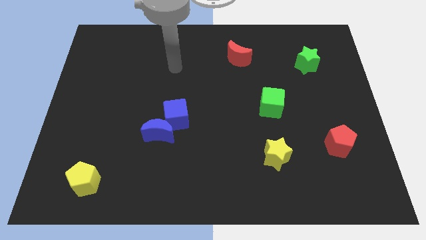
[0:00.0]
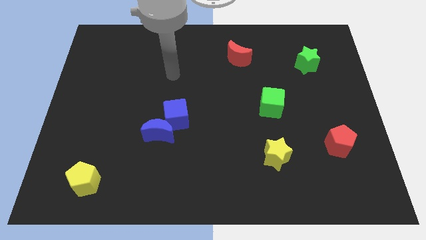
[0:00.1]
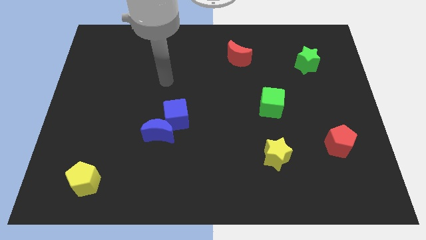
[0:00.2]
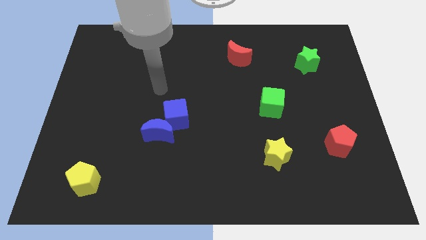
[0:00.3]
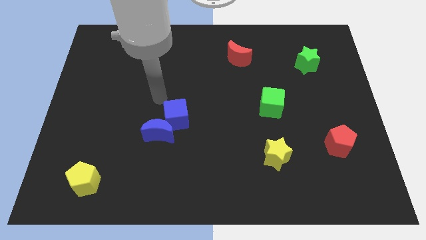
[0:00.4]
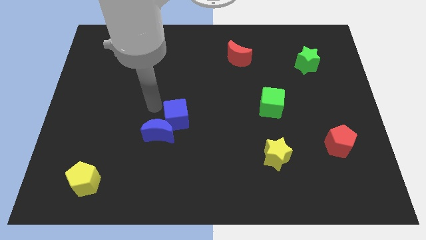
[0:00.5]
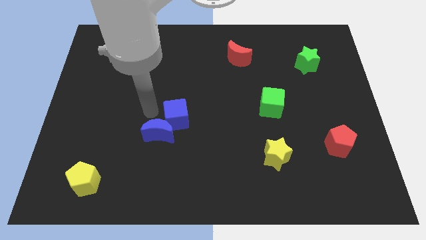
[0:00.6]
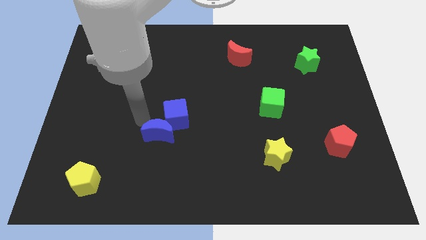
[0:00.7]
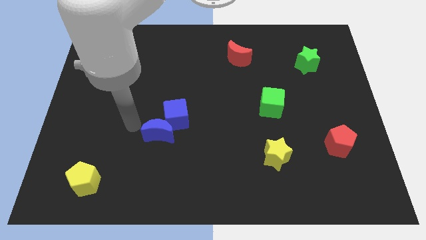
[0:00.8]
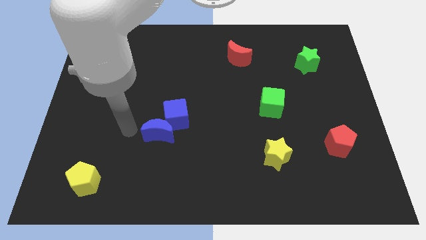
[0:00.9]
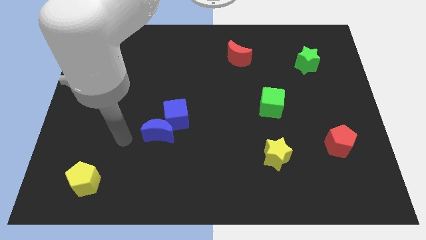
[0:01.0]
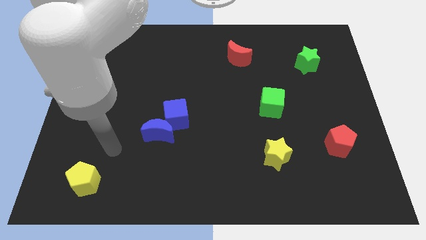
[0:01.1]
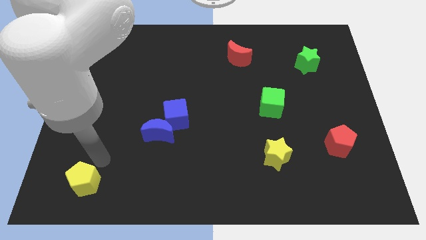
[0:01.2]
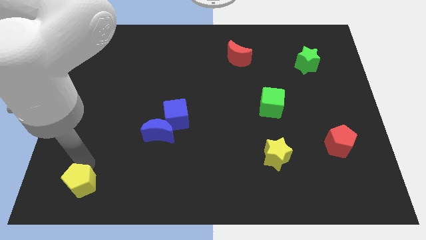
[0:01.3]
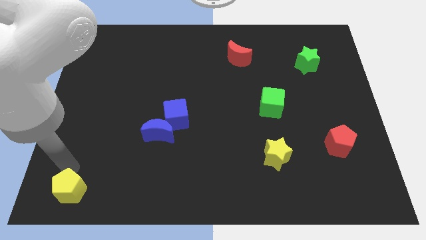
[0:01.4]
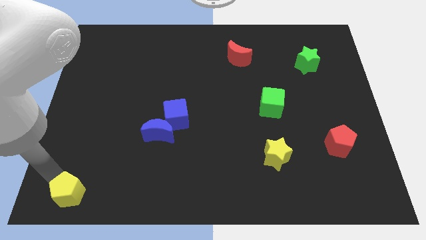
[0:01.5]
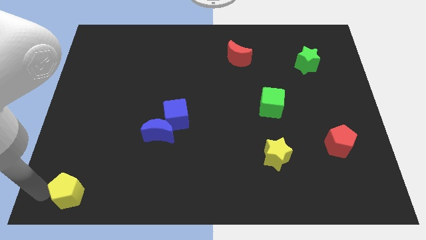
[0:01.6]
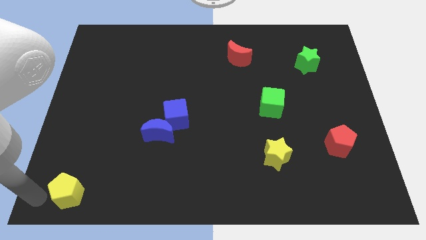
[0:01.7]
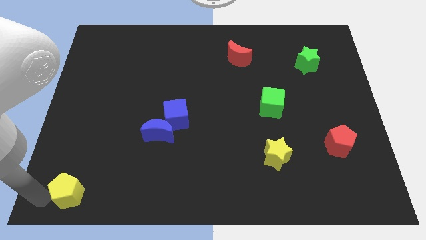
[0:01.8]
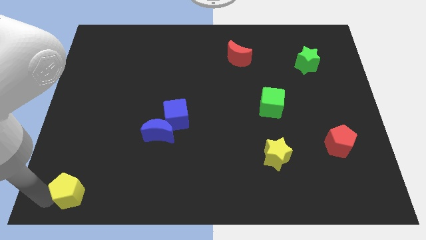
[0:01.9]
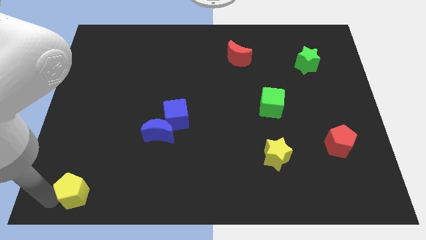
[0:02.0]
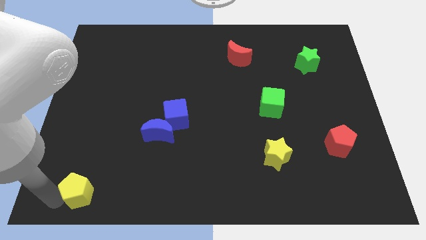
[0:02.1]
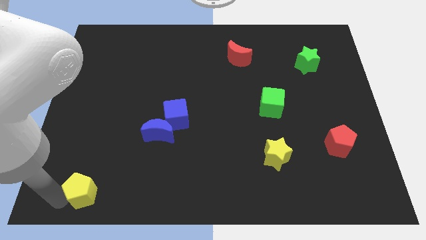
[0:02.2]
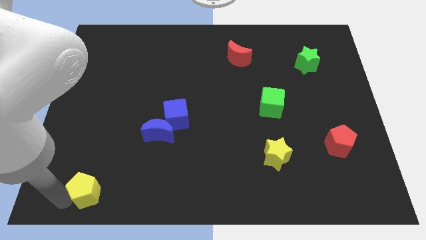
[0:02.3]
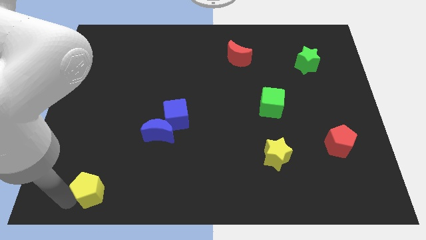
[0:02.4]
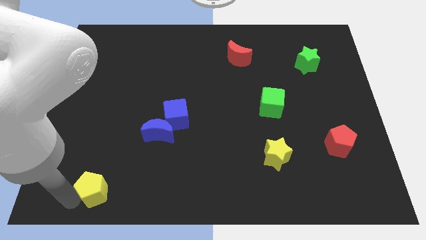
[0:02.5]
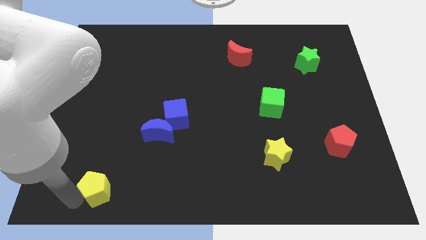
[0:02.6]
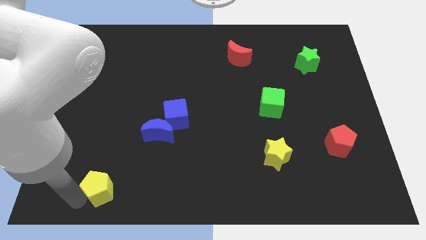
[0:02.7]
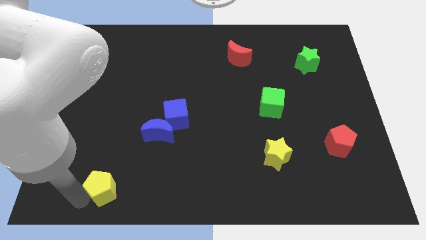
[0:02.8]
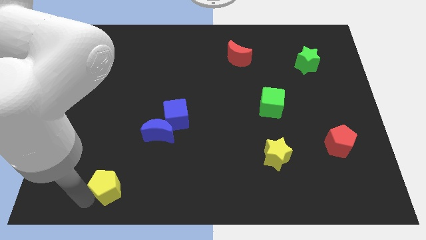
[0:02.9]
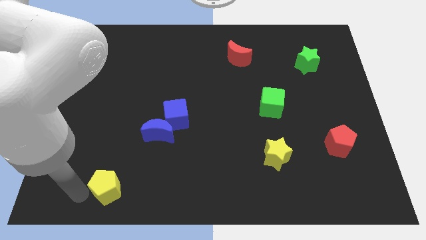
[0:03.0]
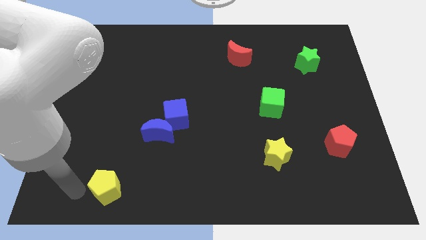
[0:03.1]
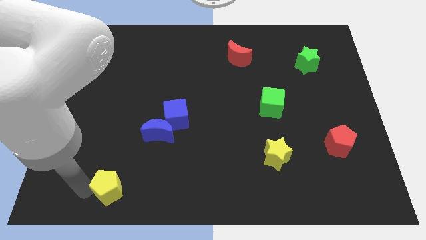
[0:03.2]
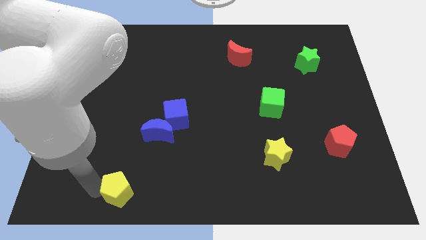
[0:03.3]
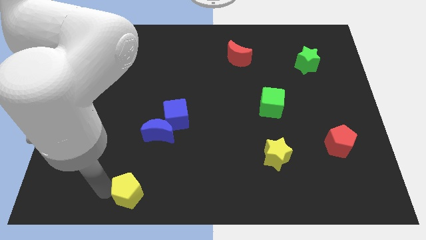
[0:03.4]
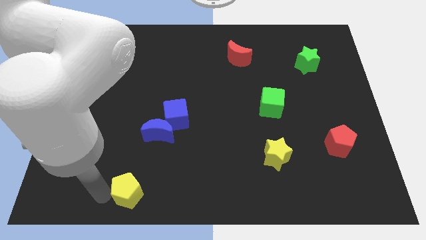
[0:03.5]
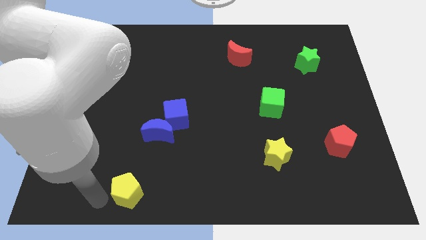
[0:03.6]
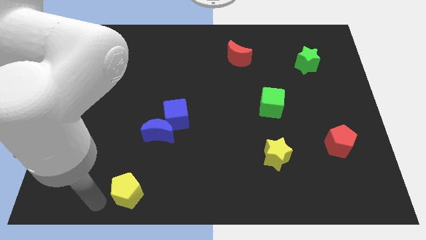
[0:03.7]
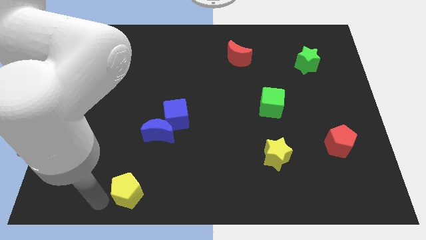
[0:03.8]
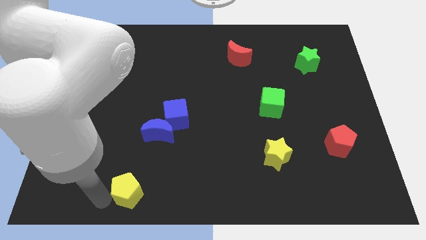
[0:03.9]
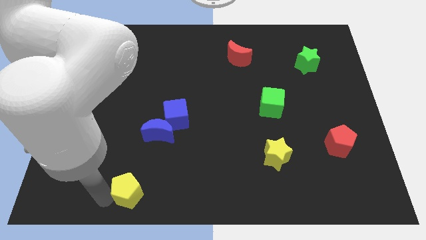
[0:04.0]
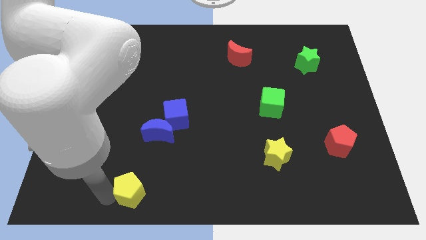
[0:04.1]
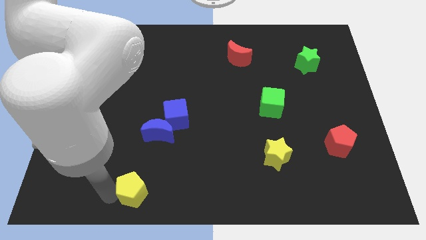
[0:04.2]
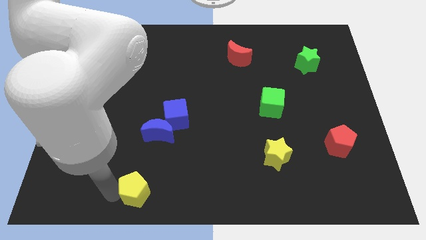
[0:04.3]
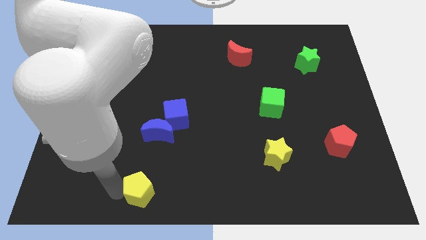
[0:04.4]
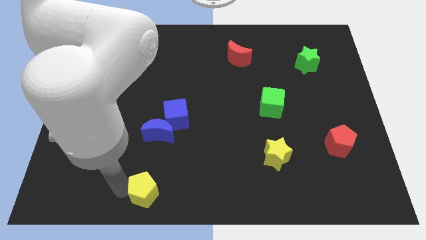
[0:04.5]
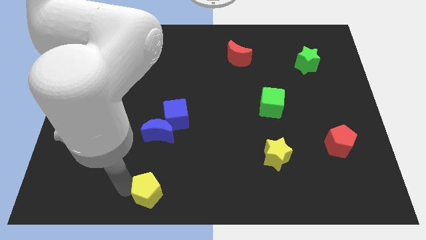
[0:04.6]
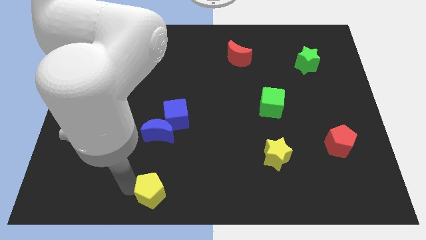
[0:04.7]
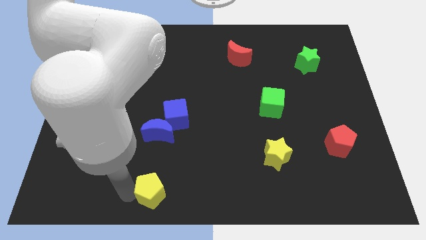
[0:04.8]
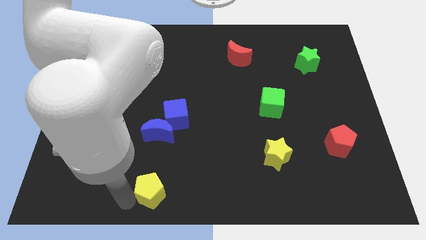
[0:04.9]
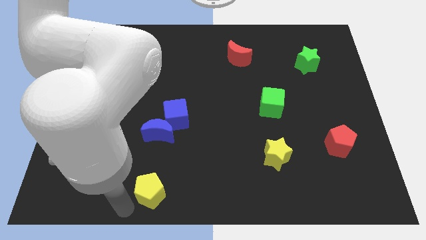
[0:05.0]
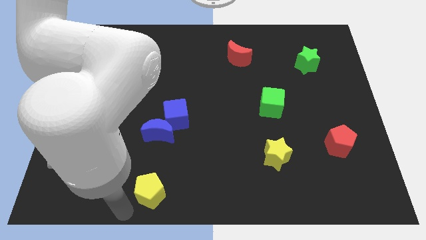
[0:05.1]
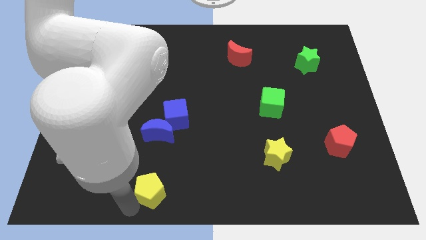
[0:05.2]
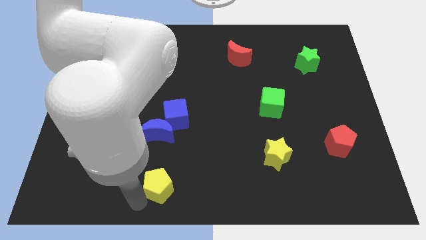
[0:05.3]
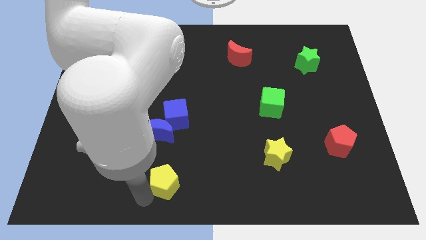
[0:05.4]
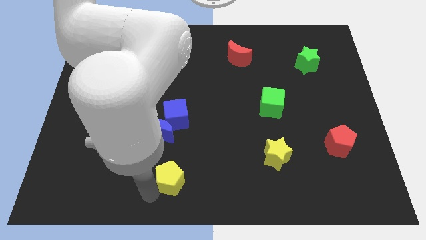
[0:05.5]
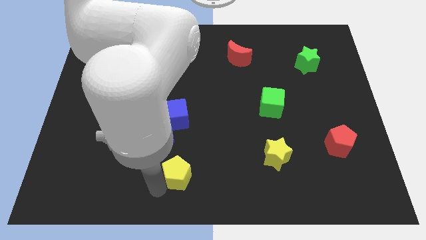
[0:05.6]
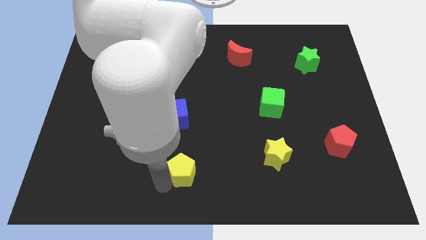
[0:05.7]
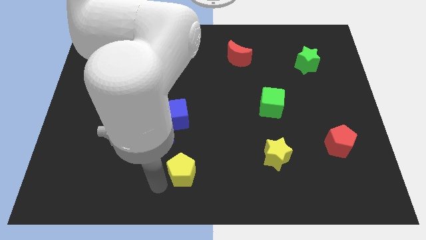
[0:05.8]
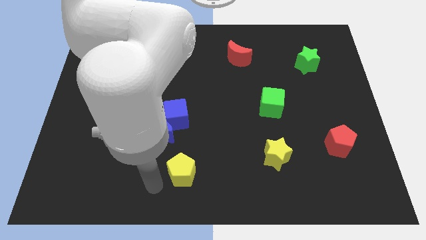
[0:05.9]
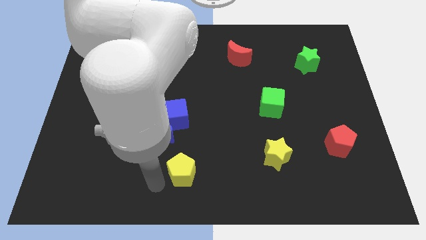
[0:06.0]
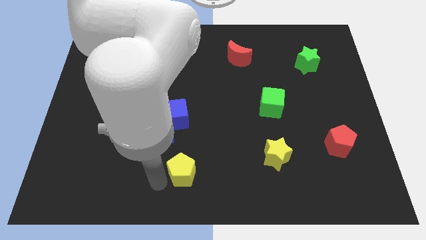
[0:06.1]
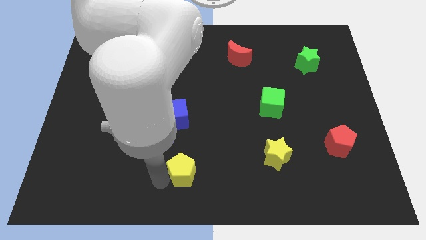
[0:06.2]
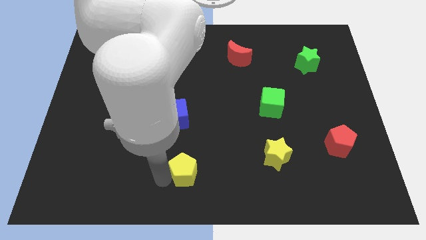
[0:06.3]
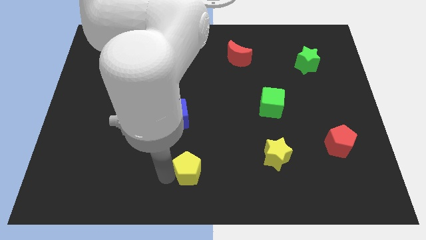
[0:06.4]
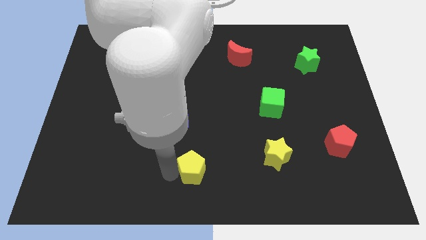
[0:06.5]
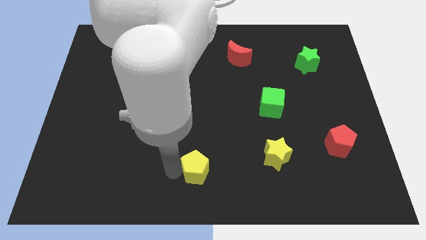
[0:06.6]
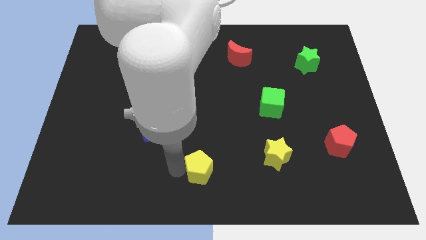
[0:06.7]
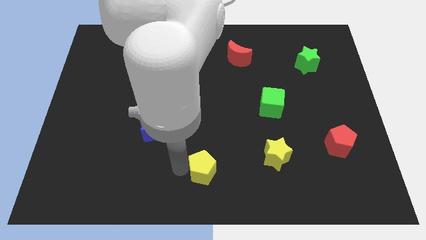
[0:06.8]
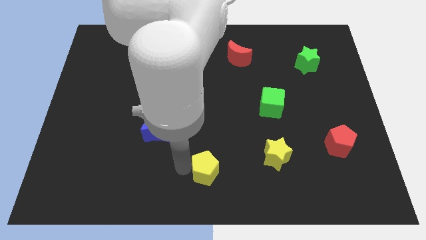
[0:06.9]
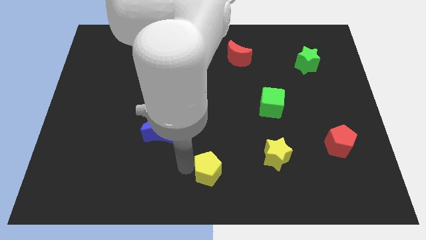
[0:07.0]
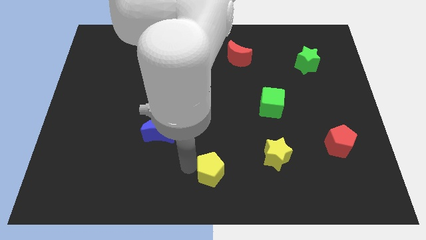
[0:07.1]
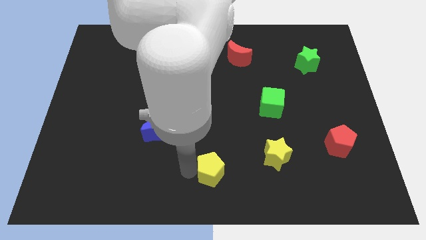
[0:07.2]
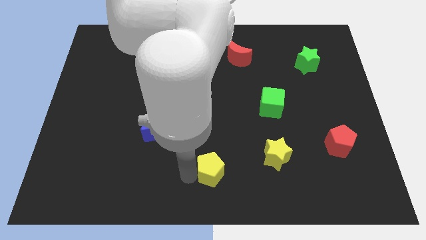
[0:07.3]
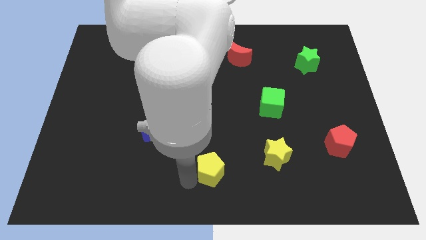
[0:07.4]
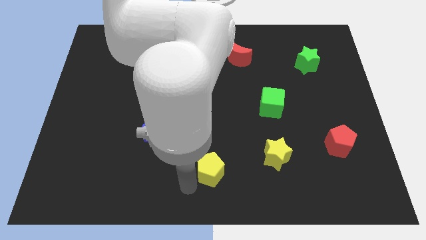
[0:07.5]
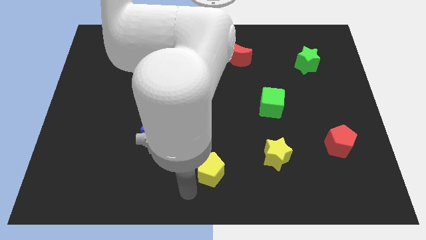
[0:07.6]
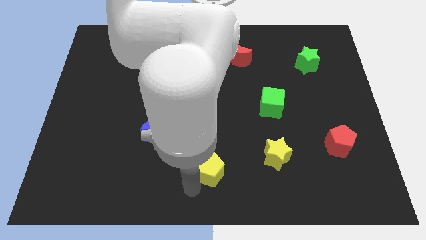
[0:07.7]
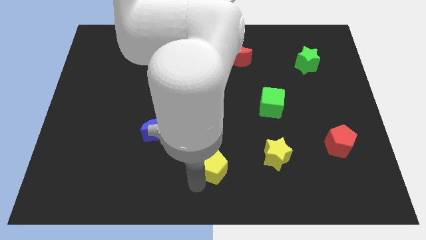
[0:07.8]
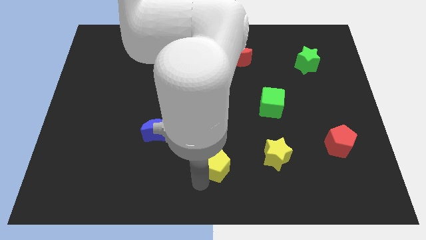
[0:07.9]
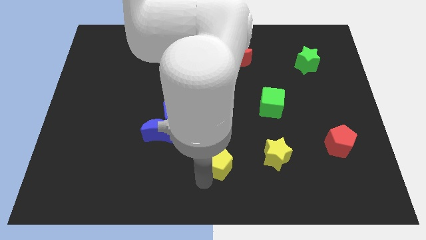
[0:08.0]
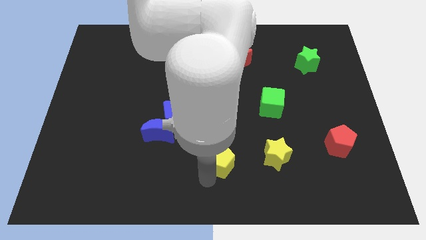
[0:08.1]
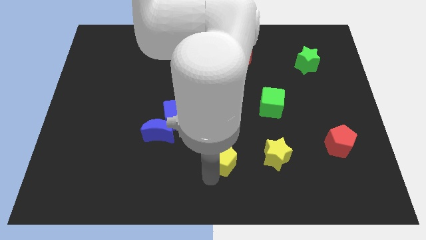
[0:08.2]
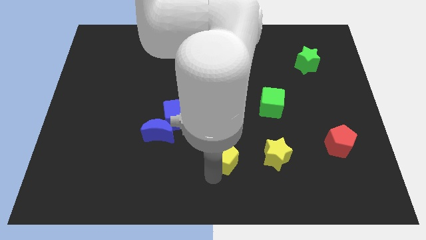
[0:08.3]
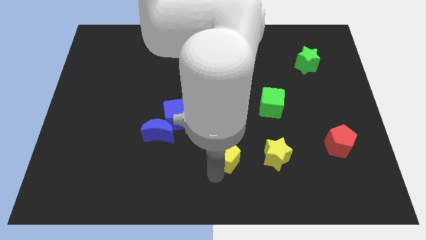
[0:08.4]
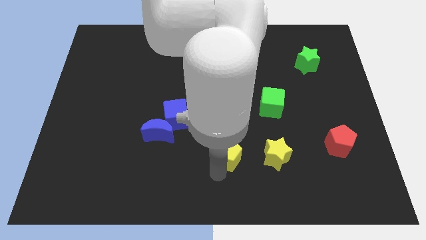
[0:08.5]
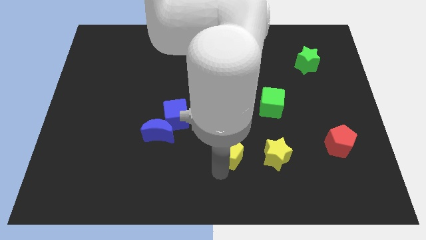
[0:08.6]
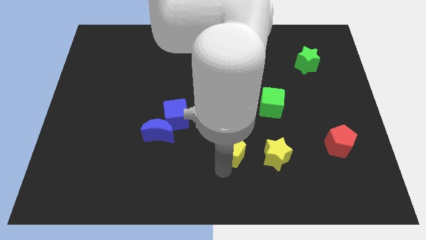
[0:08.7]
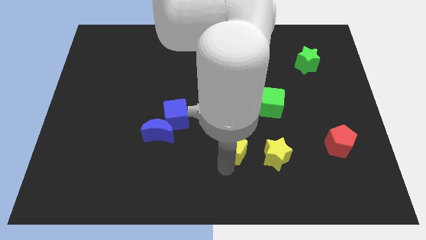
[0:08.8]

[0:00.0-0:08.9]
put the yellow pentagon to the top left side of the yellow star
